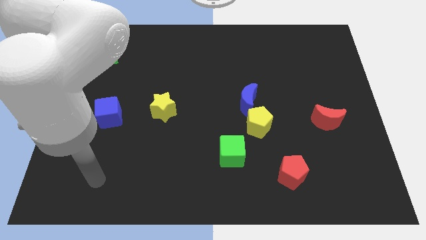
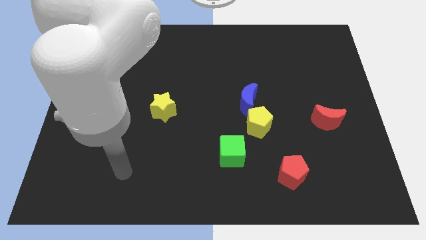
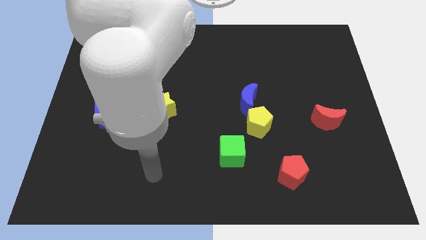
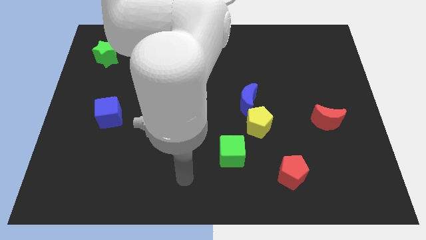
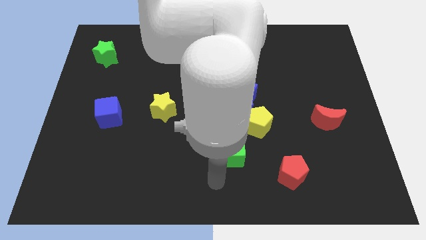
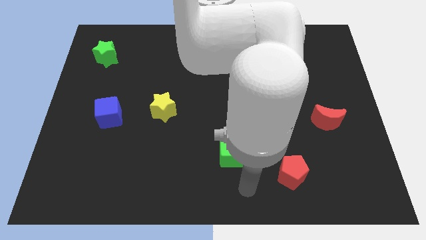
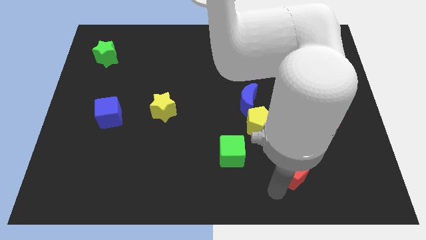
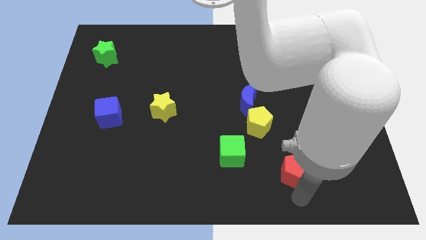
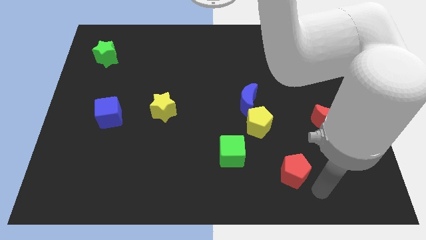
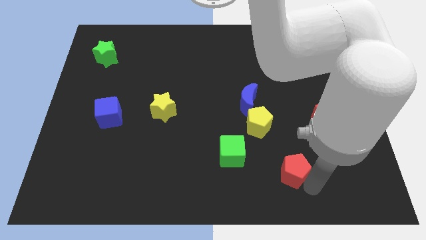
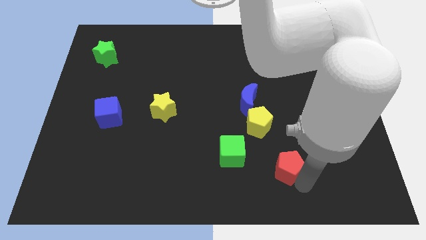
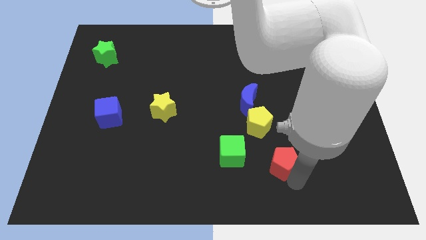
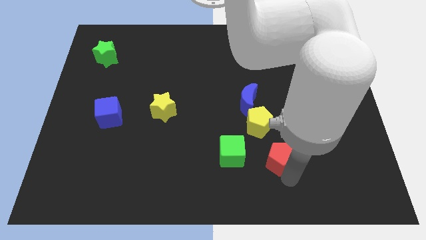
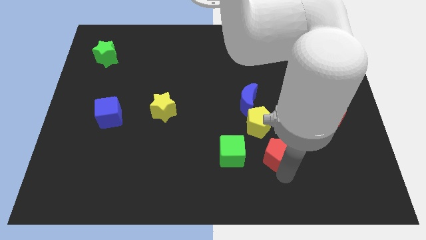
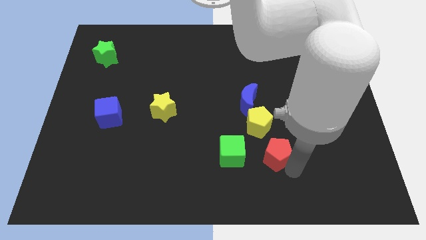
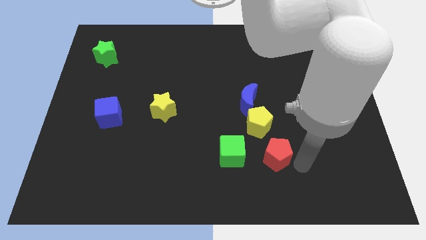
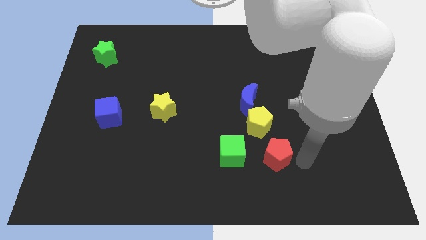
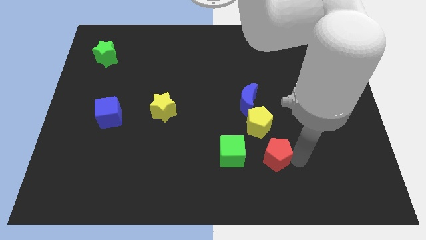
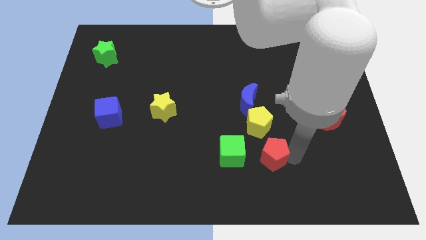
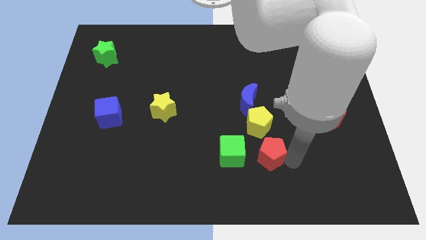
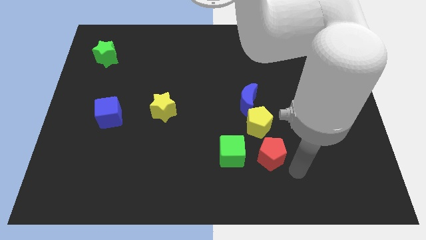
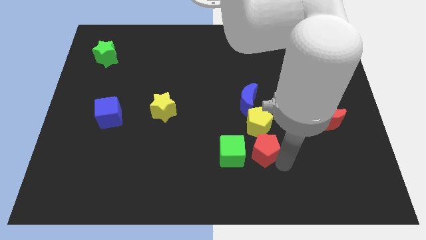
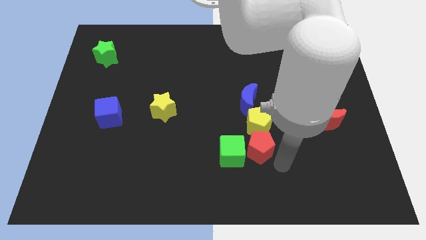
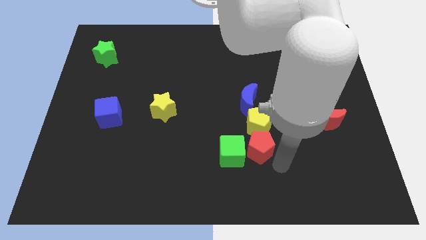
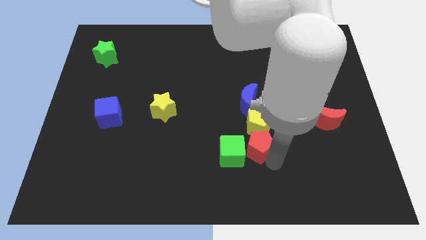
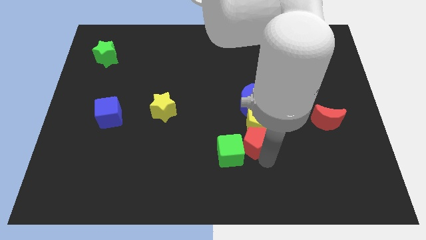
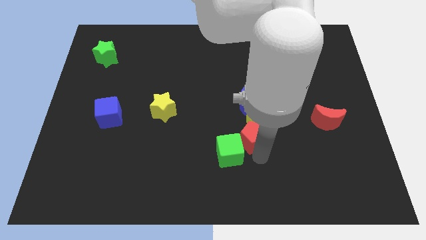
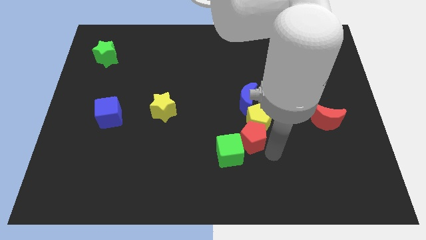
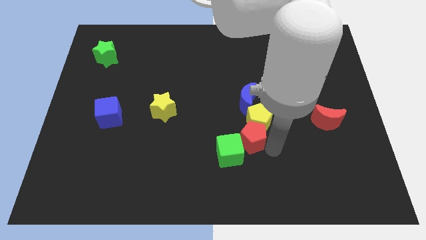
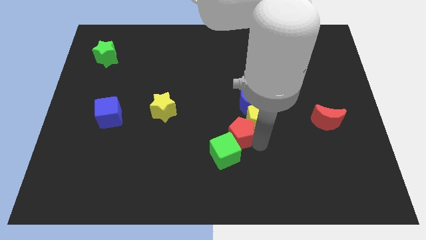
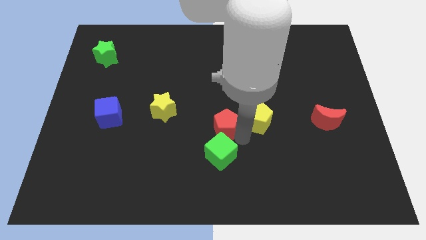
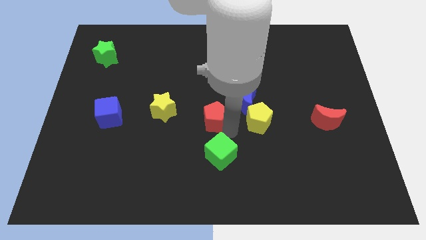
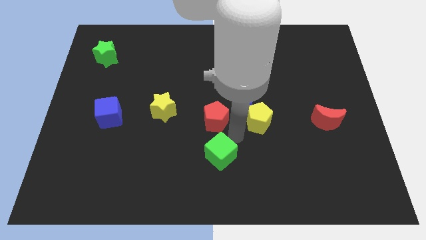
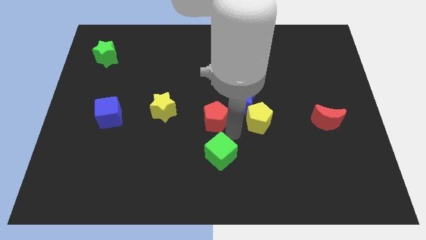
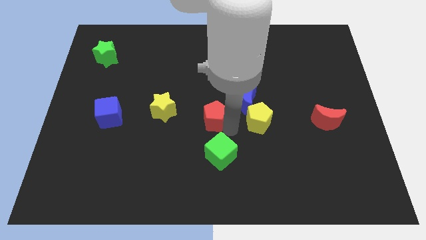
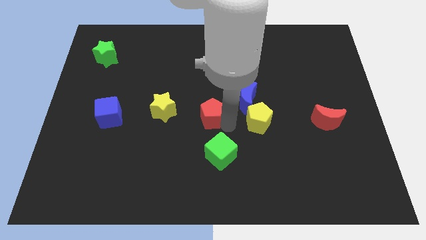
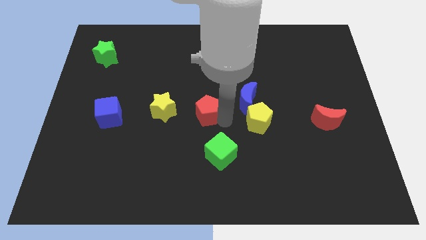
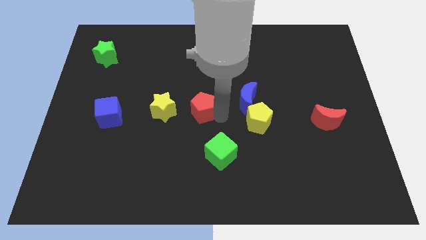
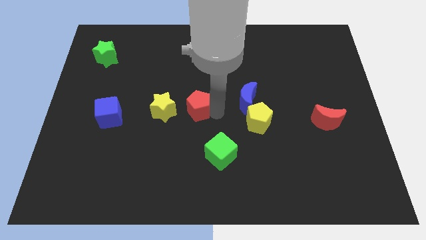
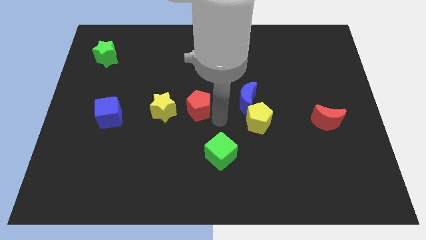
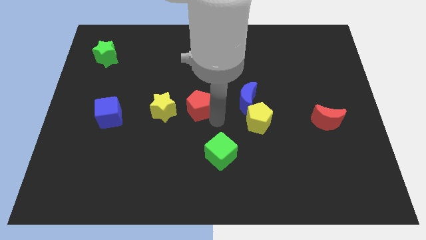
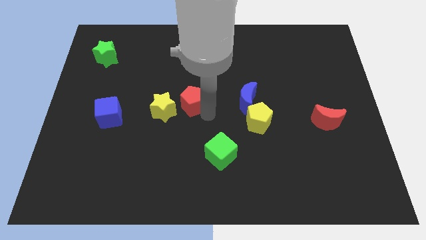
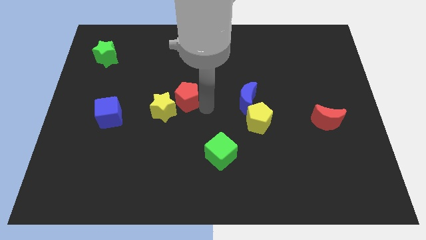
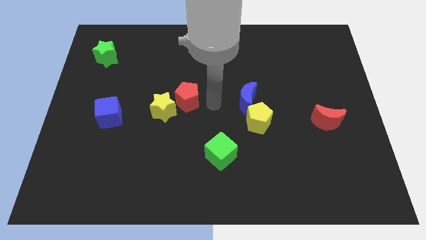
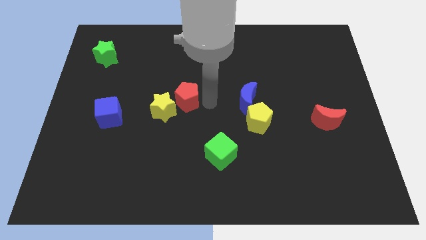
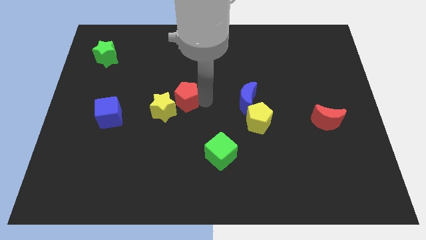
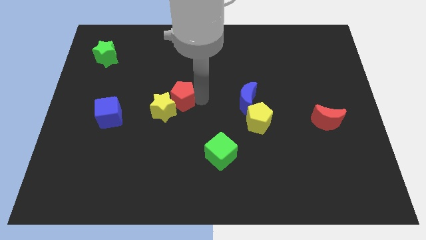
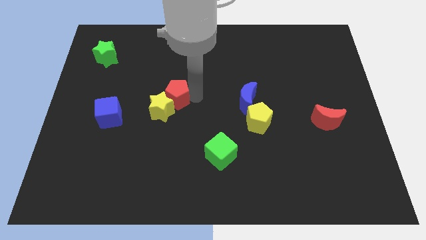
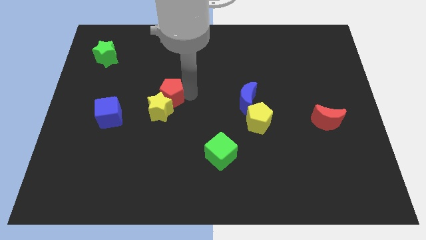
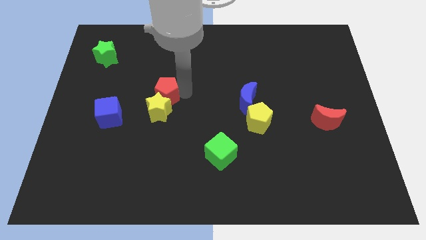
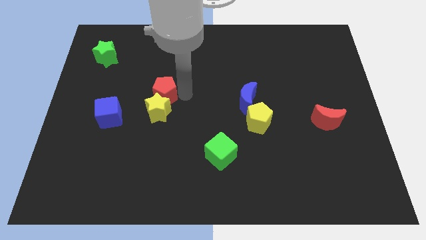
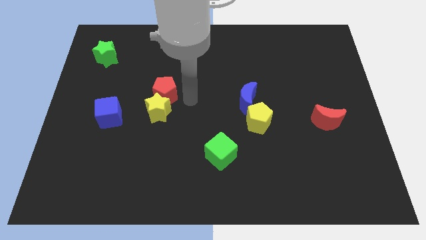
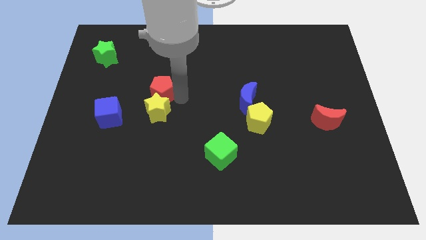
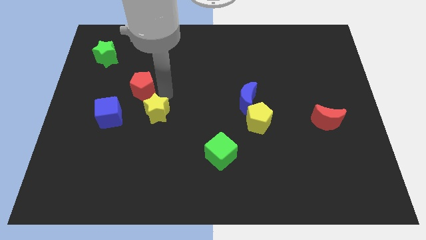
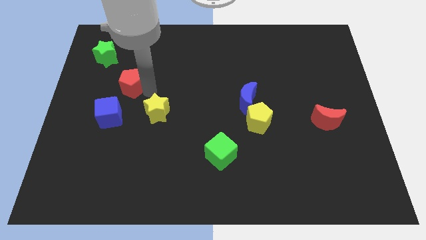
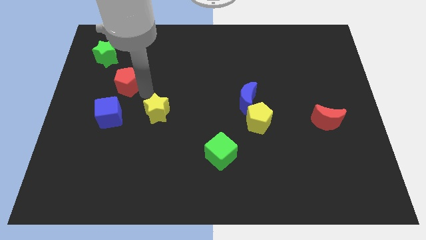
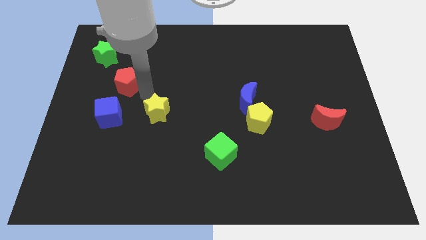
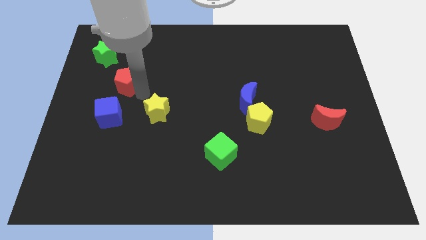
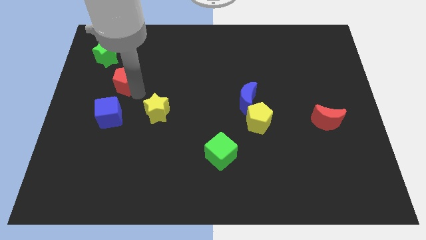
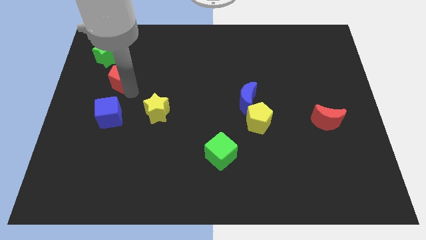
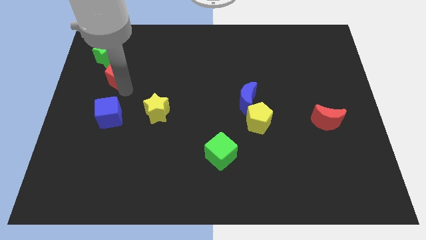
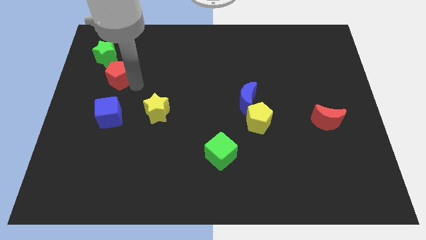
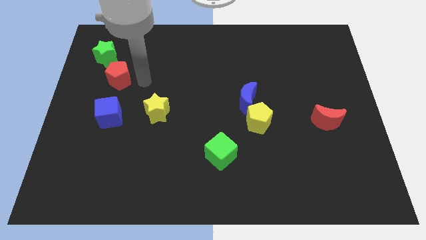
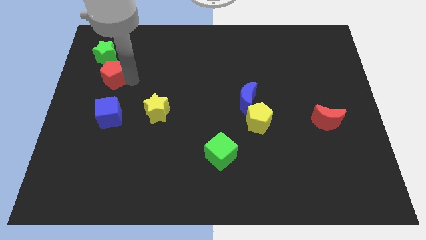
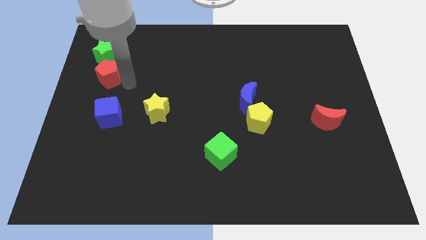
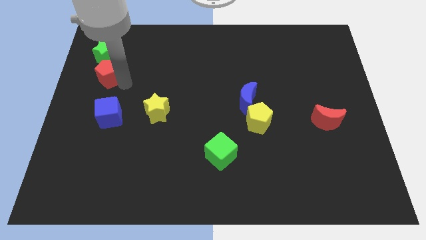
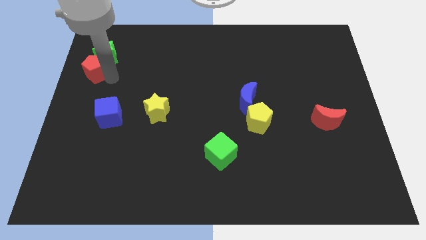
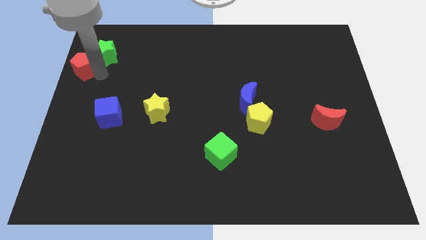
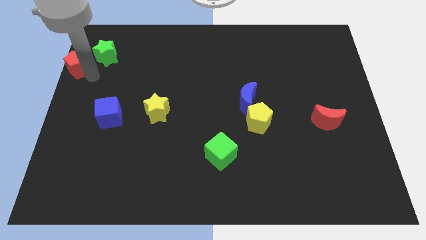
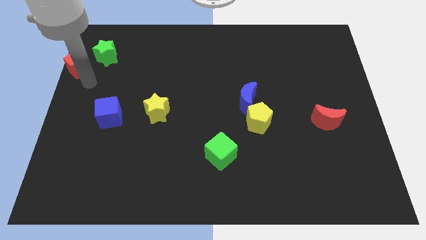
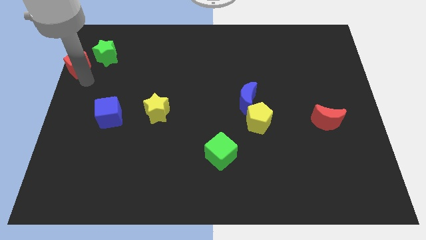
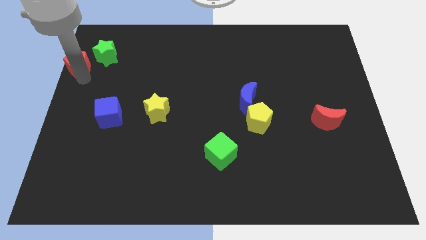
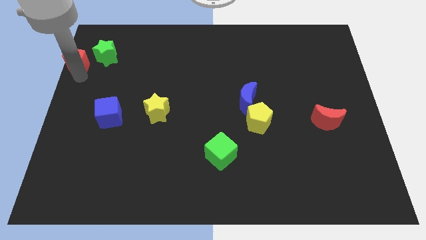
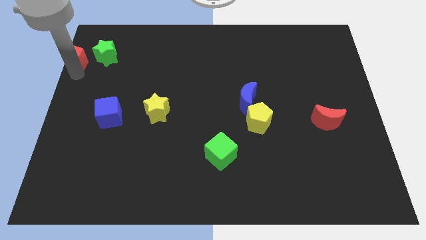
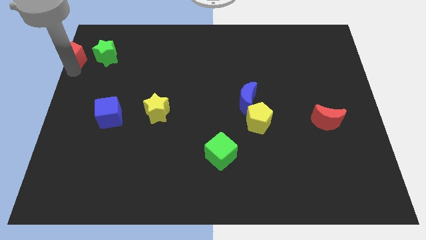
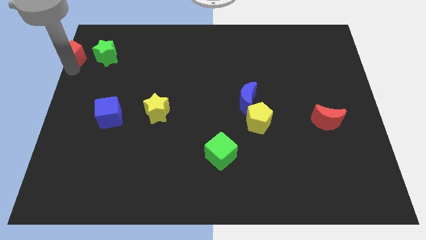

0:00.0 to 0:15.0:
push the red pentagon to the top left corner
